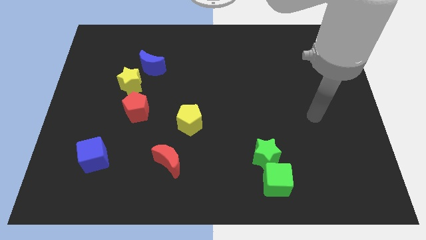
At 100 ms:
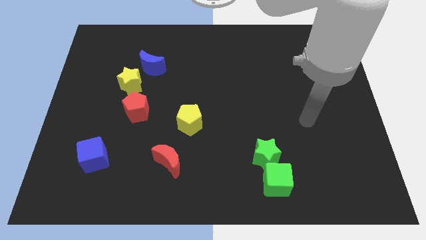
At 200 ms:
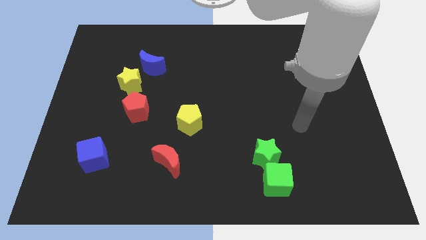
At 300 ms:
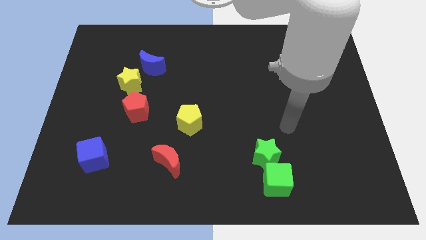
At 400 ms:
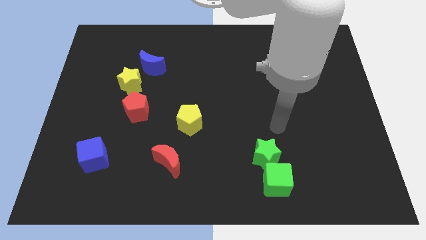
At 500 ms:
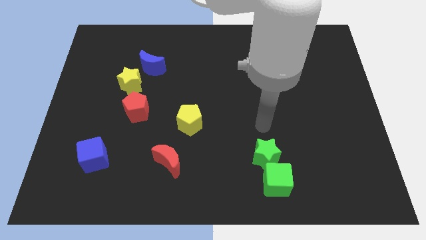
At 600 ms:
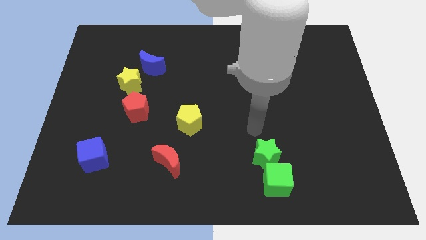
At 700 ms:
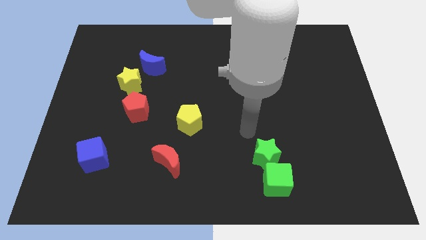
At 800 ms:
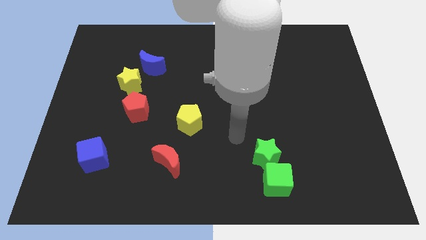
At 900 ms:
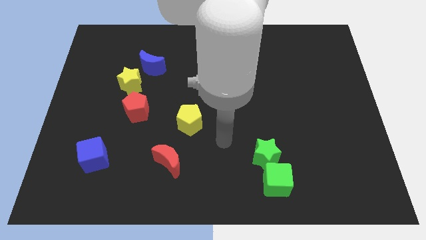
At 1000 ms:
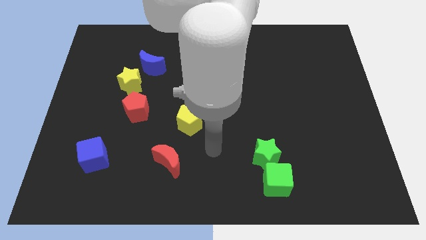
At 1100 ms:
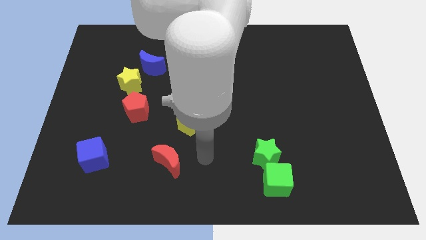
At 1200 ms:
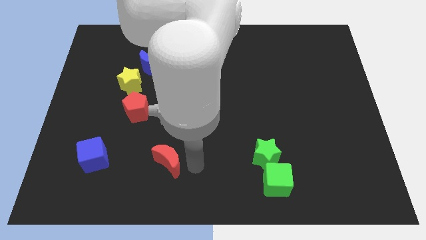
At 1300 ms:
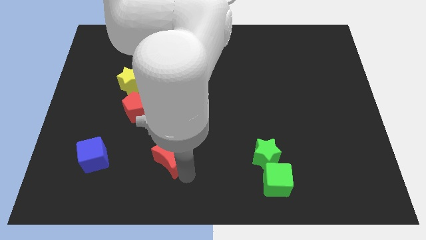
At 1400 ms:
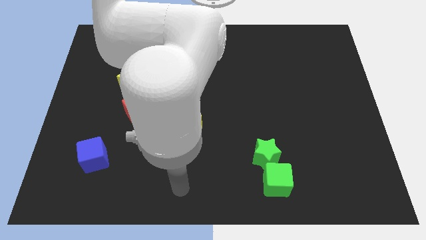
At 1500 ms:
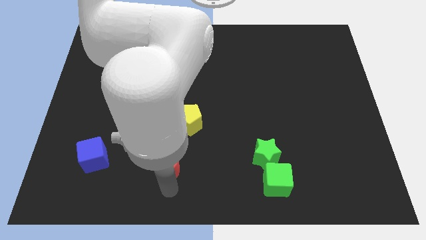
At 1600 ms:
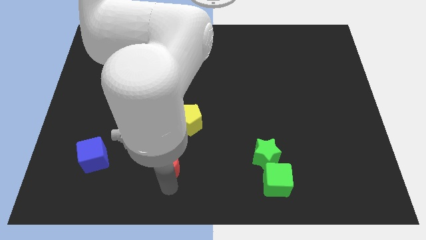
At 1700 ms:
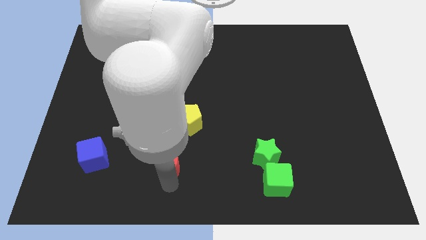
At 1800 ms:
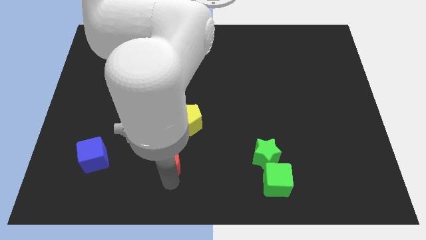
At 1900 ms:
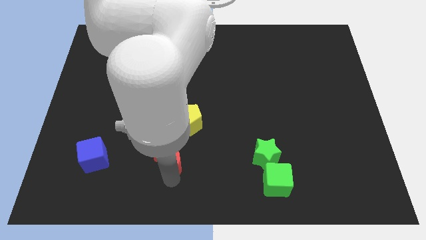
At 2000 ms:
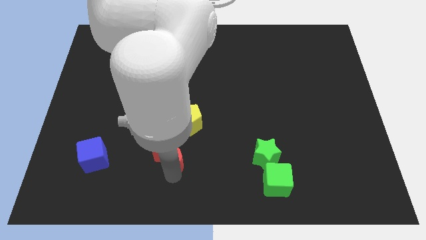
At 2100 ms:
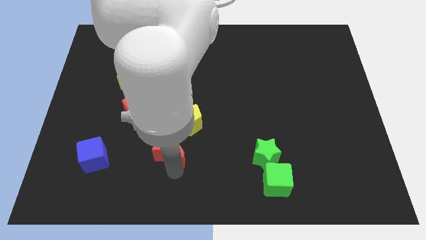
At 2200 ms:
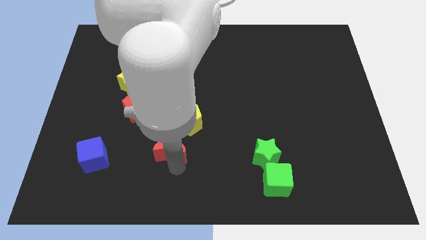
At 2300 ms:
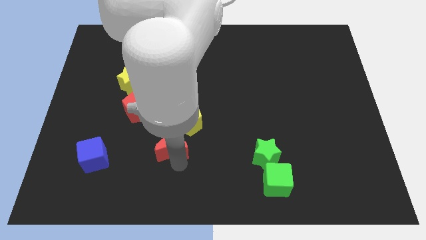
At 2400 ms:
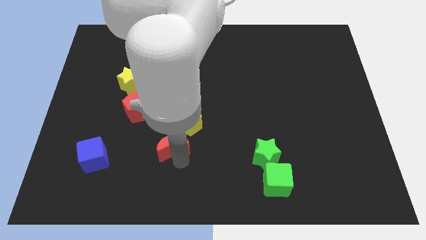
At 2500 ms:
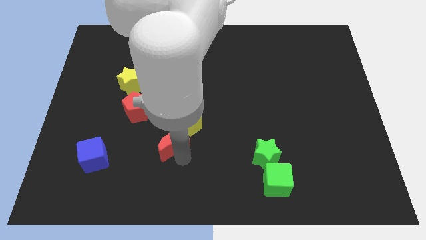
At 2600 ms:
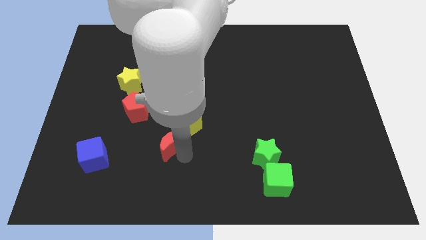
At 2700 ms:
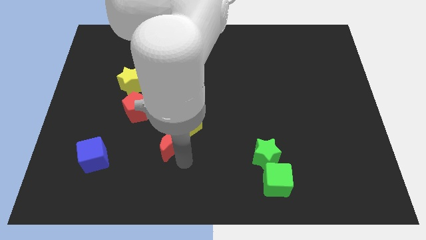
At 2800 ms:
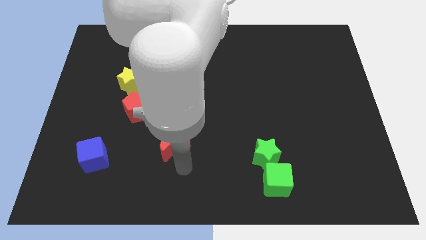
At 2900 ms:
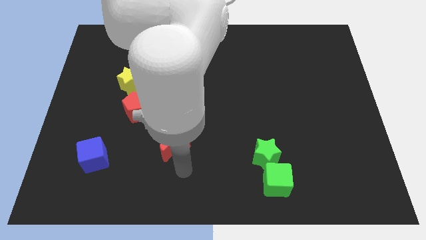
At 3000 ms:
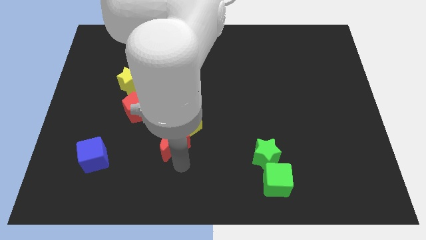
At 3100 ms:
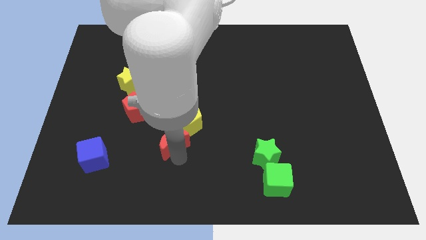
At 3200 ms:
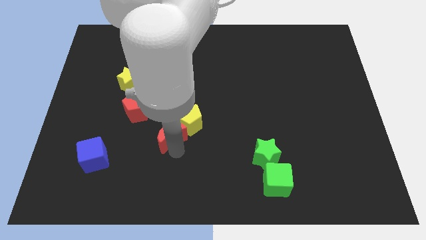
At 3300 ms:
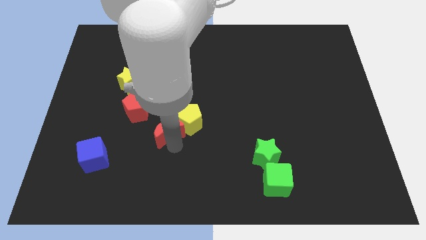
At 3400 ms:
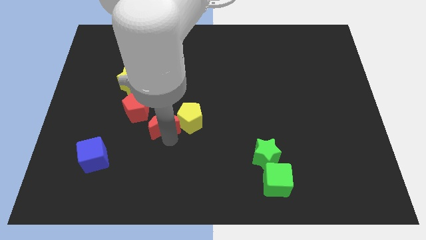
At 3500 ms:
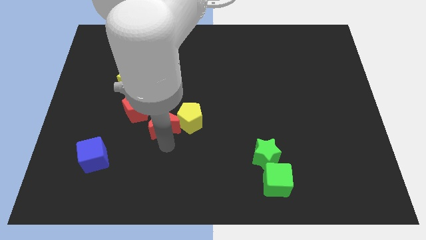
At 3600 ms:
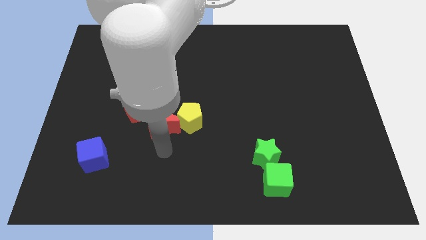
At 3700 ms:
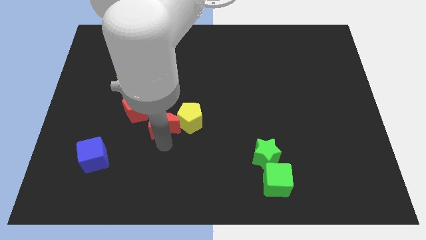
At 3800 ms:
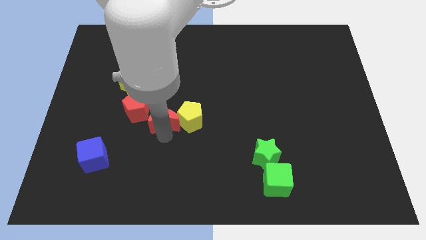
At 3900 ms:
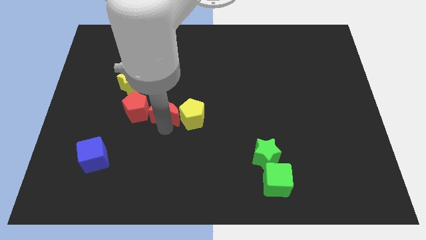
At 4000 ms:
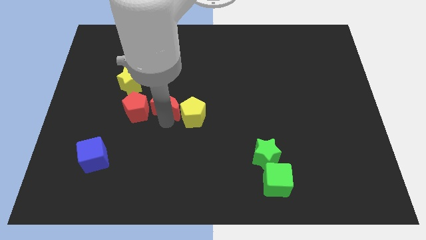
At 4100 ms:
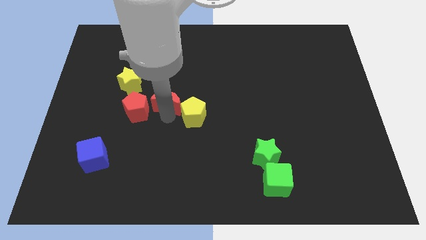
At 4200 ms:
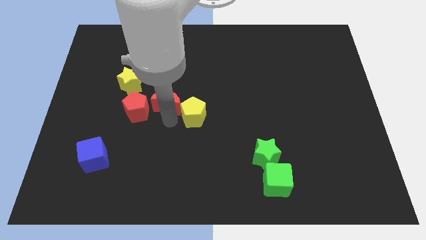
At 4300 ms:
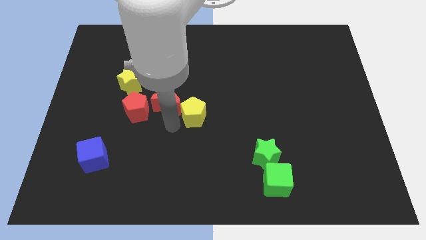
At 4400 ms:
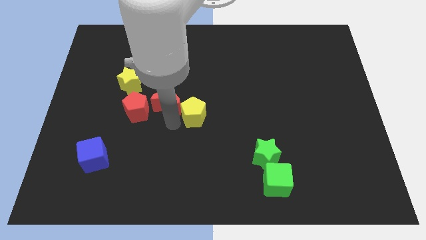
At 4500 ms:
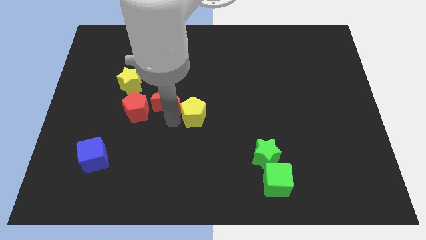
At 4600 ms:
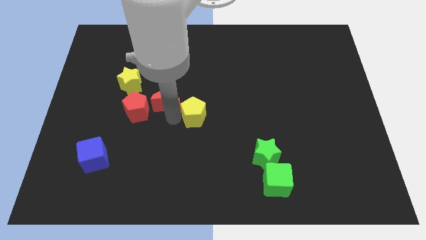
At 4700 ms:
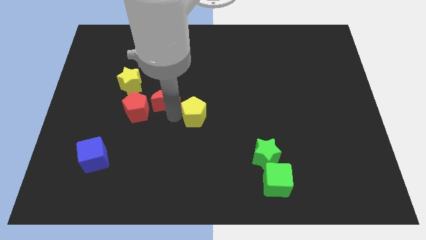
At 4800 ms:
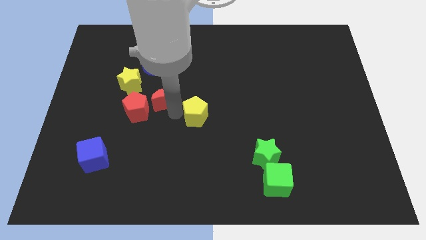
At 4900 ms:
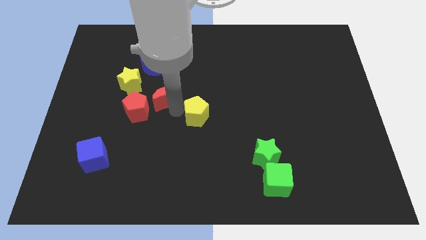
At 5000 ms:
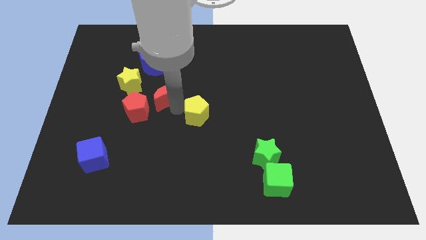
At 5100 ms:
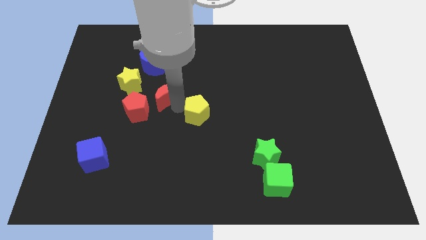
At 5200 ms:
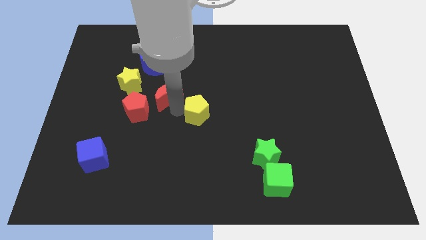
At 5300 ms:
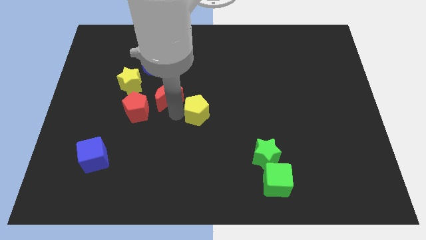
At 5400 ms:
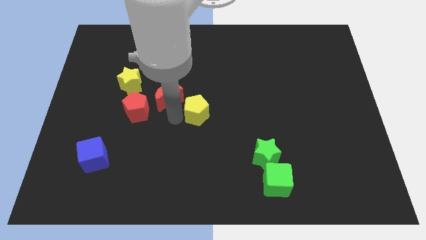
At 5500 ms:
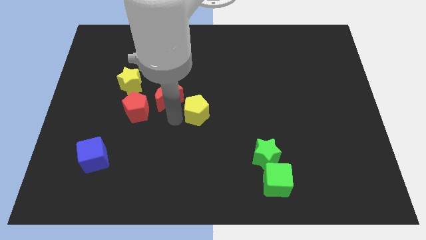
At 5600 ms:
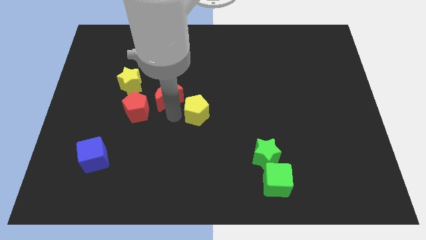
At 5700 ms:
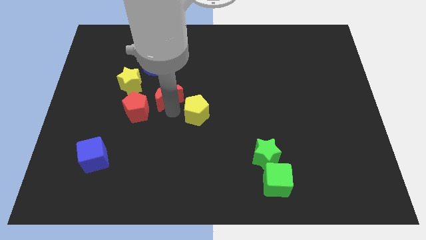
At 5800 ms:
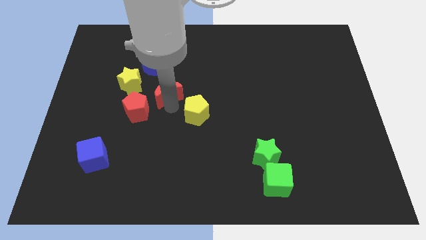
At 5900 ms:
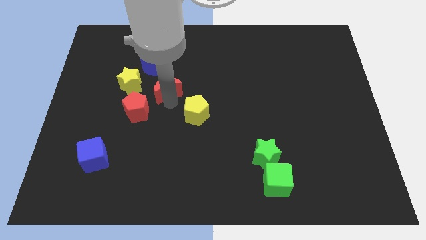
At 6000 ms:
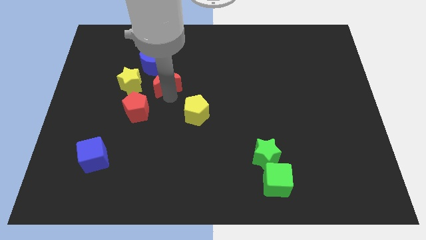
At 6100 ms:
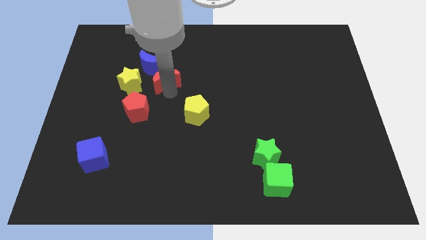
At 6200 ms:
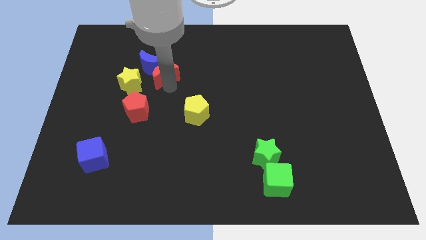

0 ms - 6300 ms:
push the red moon to the blue moon
